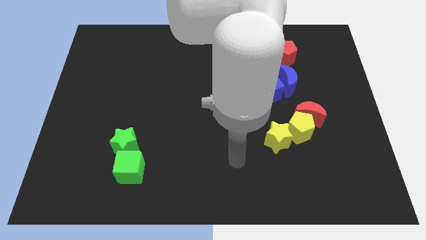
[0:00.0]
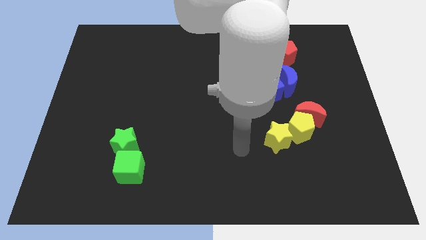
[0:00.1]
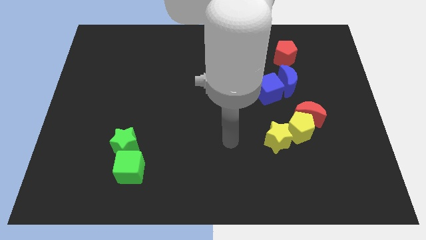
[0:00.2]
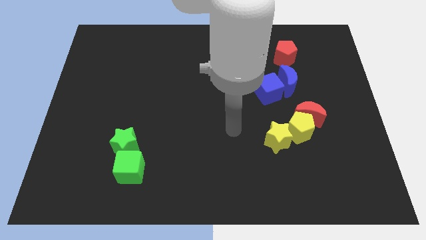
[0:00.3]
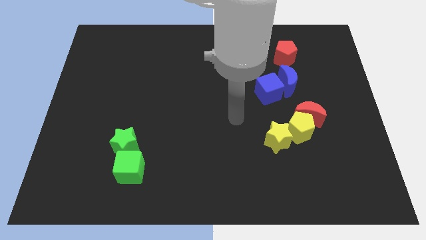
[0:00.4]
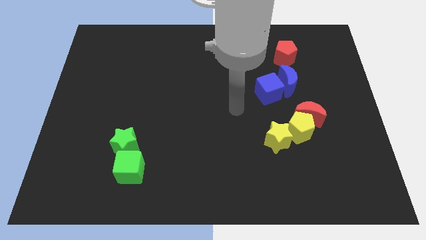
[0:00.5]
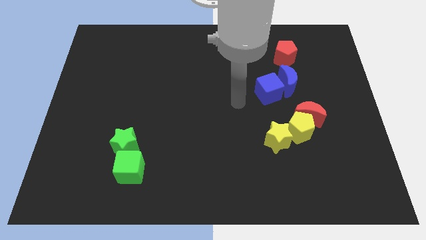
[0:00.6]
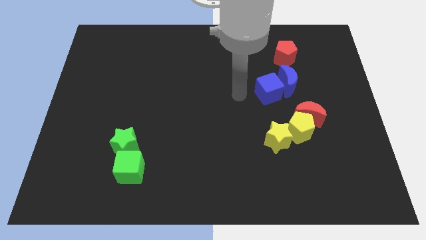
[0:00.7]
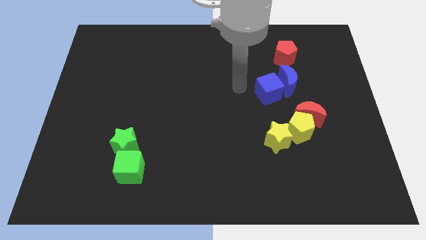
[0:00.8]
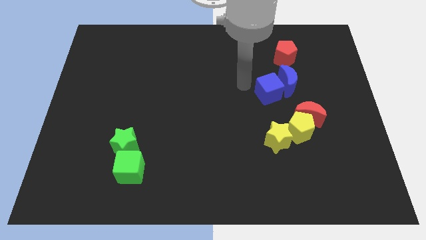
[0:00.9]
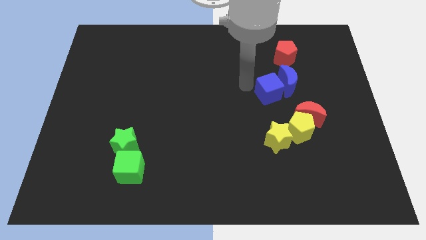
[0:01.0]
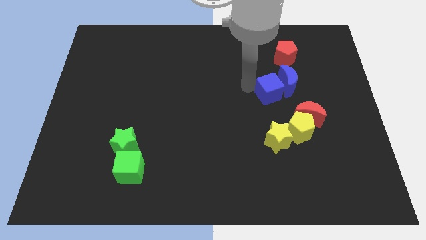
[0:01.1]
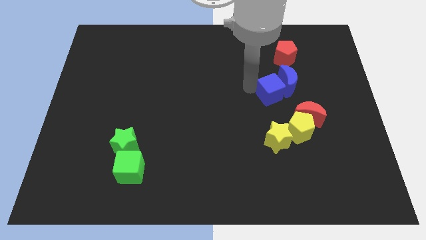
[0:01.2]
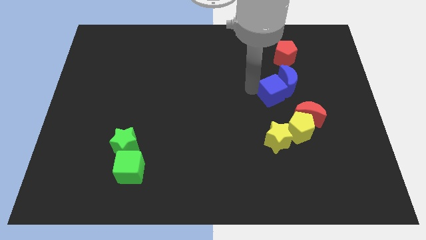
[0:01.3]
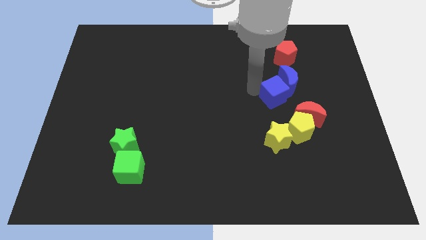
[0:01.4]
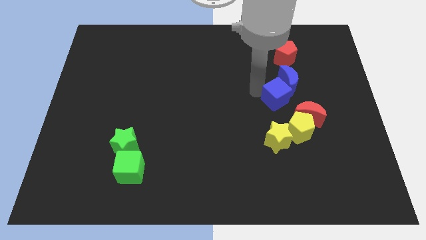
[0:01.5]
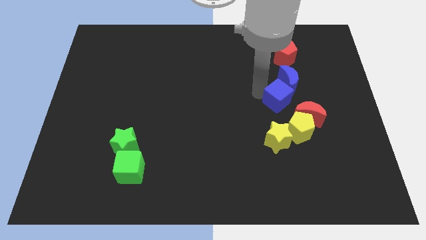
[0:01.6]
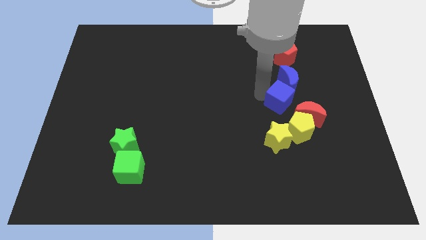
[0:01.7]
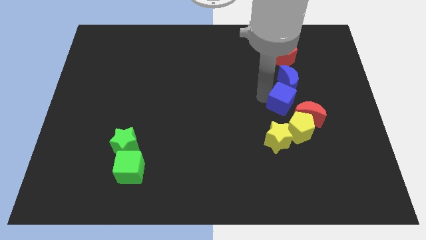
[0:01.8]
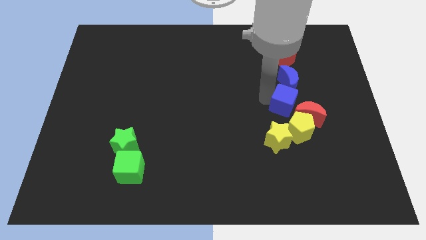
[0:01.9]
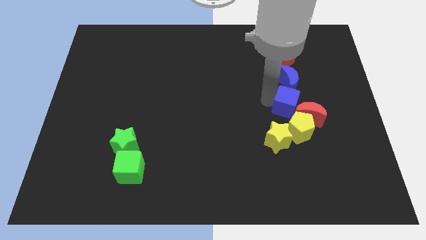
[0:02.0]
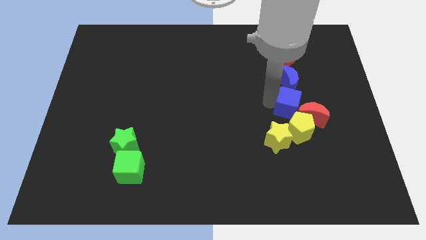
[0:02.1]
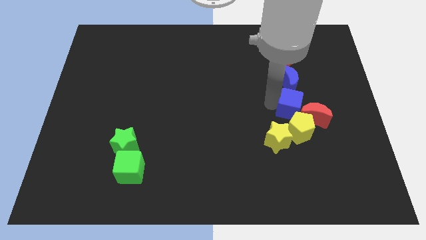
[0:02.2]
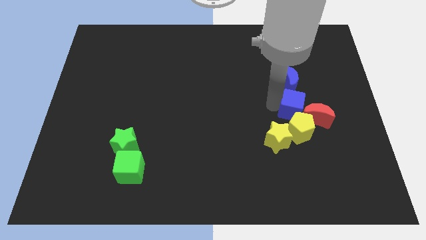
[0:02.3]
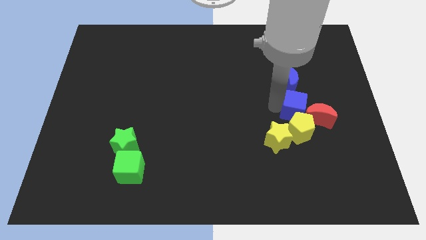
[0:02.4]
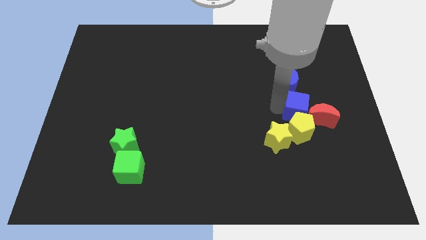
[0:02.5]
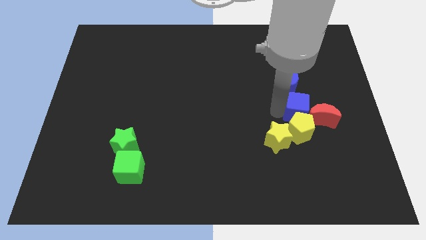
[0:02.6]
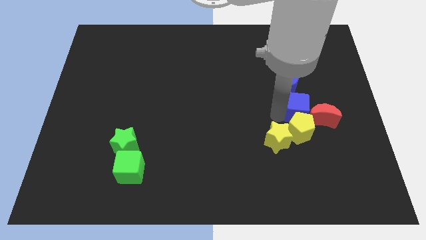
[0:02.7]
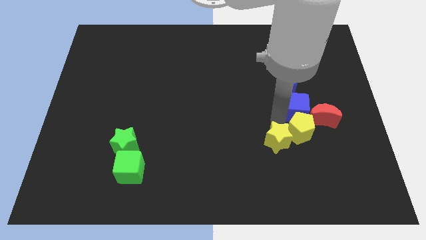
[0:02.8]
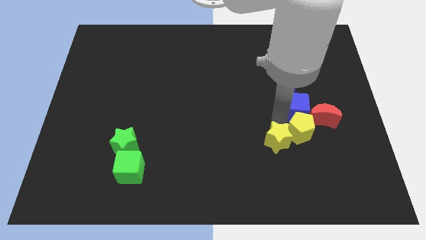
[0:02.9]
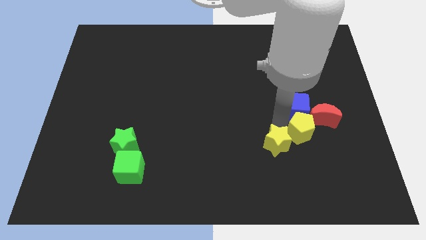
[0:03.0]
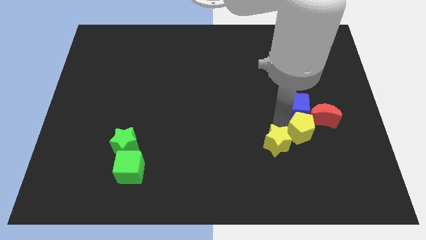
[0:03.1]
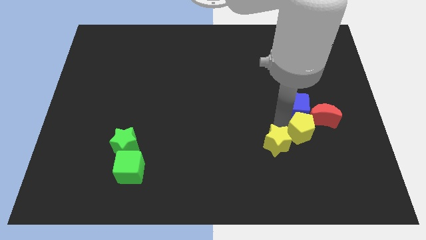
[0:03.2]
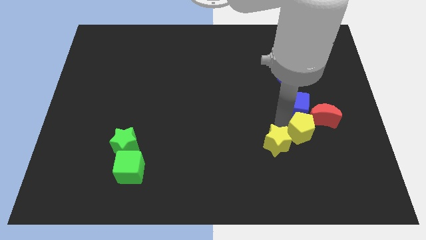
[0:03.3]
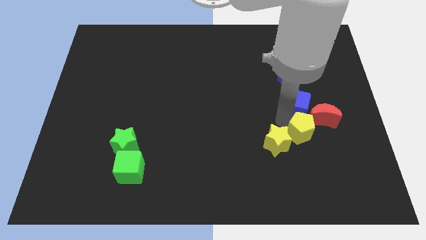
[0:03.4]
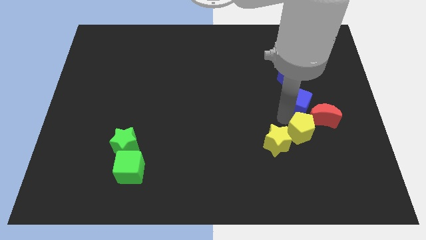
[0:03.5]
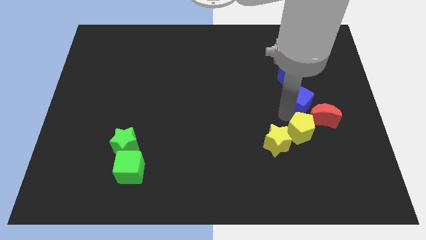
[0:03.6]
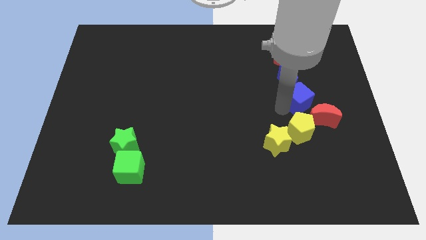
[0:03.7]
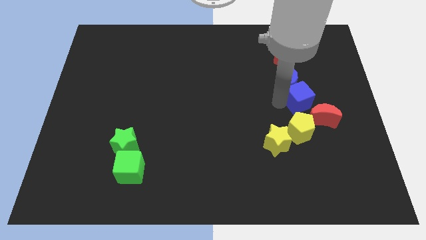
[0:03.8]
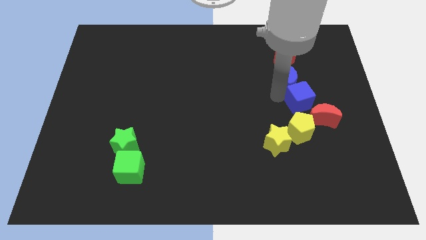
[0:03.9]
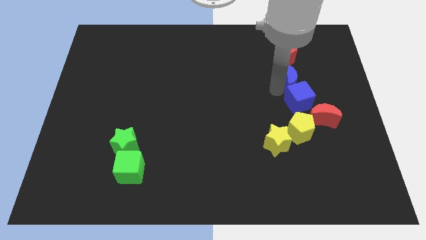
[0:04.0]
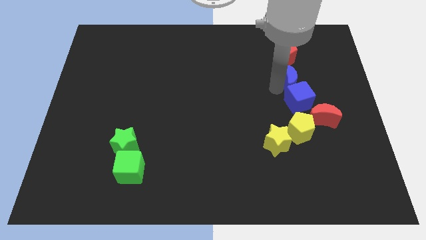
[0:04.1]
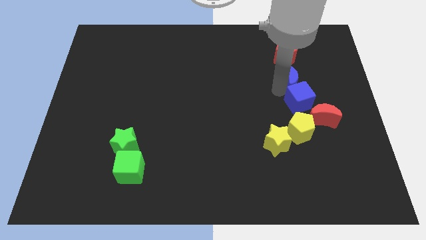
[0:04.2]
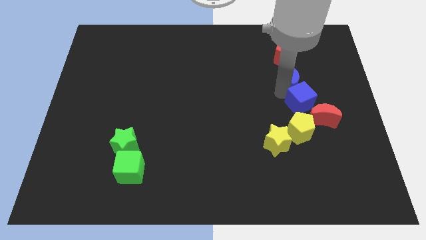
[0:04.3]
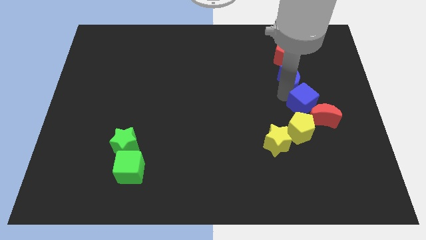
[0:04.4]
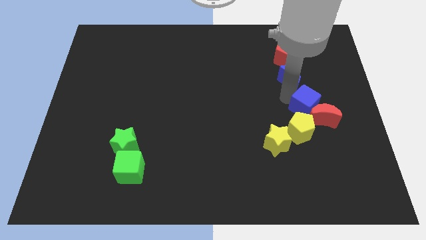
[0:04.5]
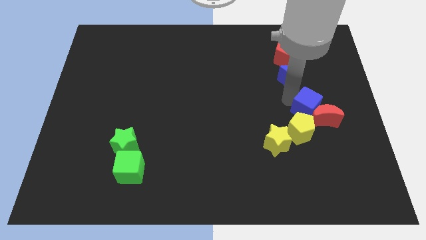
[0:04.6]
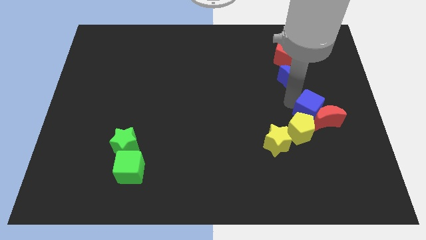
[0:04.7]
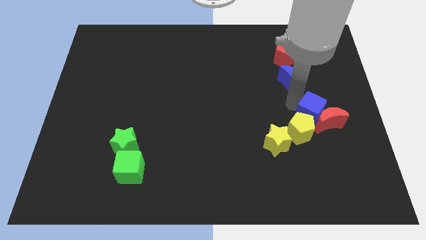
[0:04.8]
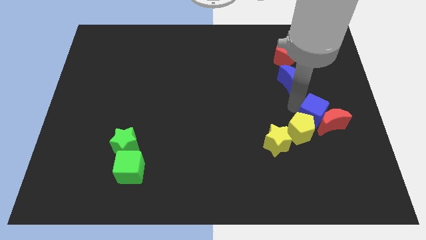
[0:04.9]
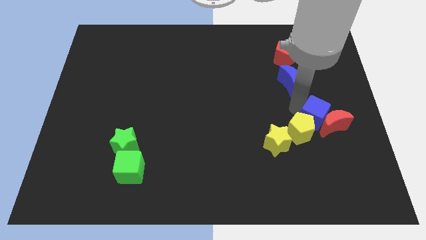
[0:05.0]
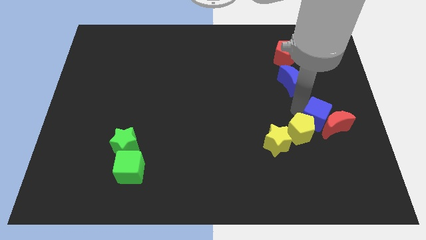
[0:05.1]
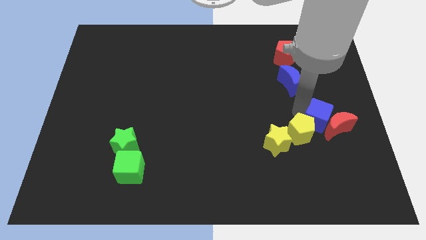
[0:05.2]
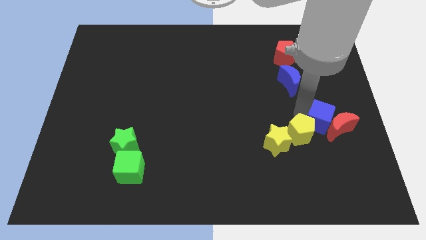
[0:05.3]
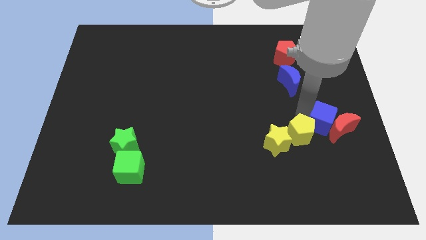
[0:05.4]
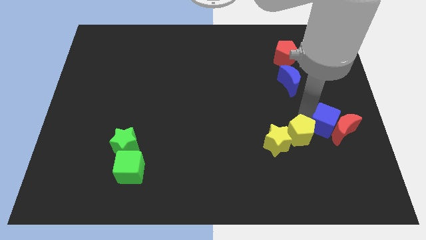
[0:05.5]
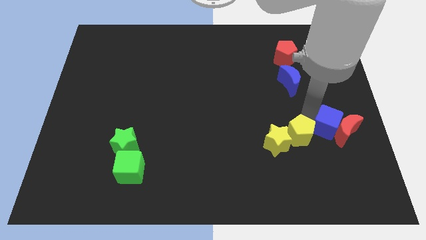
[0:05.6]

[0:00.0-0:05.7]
put the blue cube just right of the yellow star
